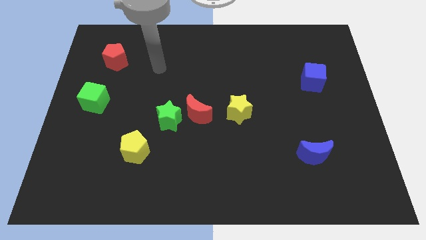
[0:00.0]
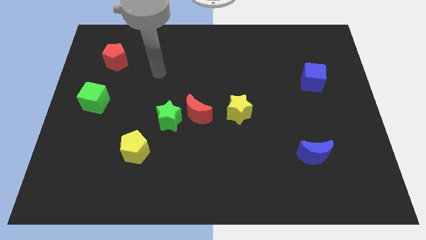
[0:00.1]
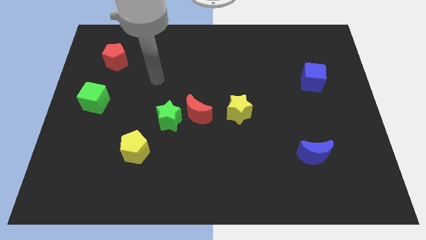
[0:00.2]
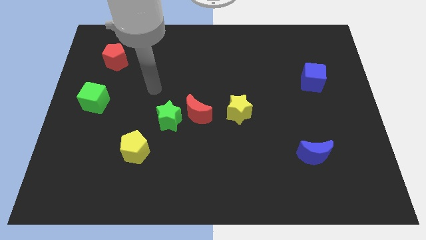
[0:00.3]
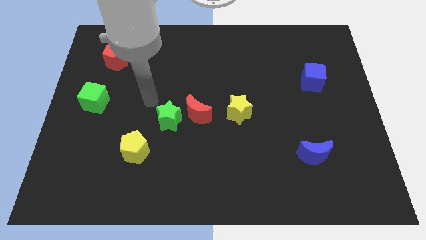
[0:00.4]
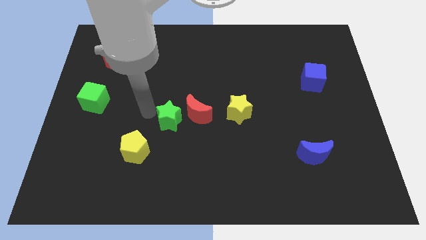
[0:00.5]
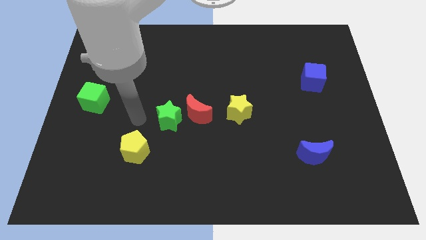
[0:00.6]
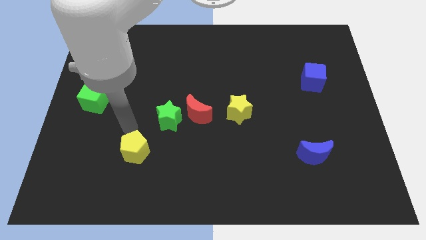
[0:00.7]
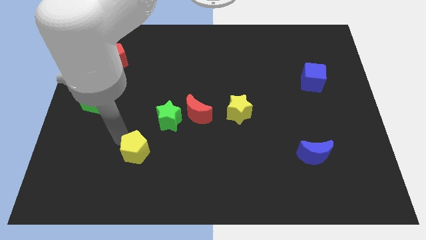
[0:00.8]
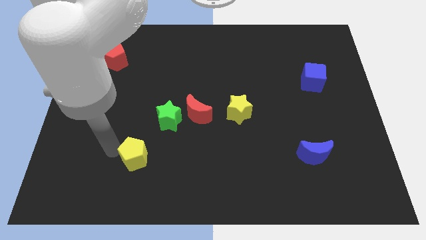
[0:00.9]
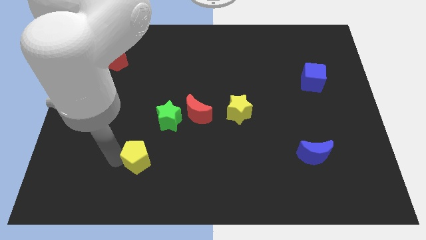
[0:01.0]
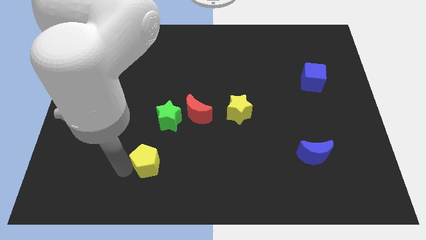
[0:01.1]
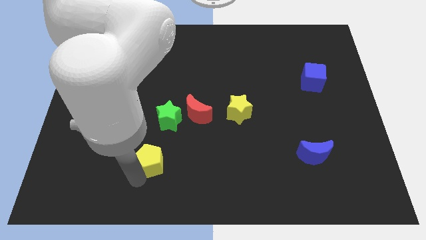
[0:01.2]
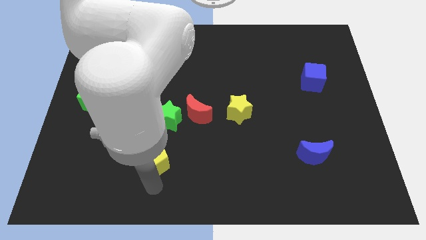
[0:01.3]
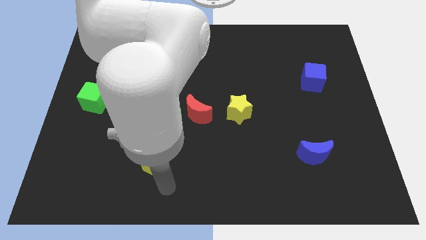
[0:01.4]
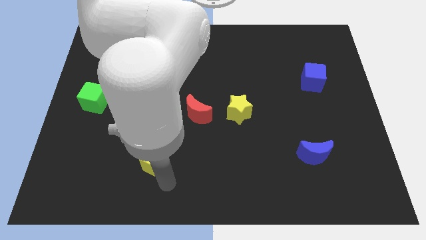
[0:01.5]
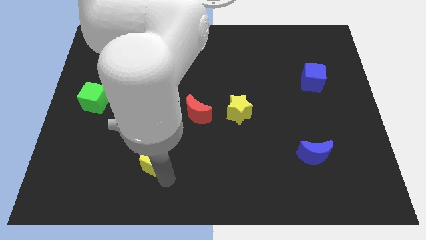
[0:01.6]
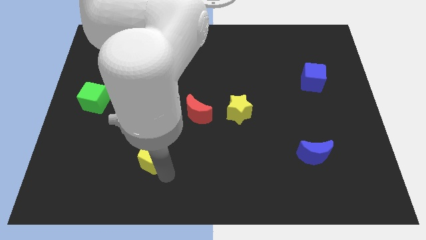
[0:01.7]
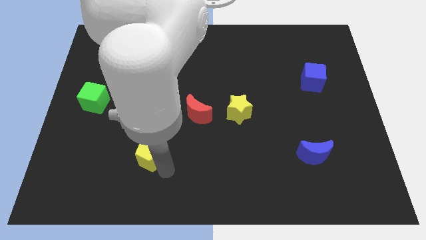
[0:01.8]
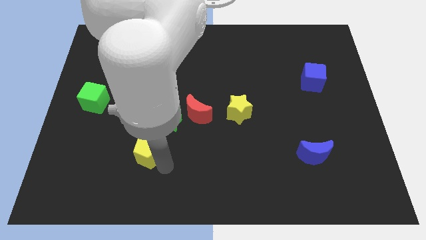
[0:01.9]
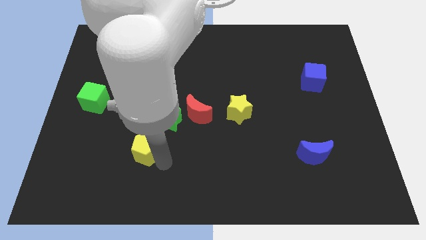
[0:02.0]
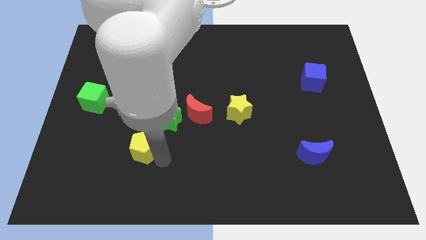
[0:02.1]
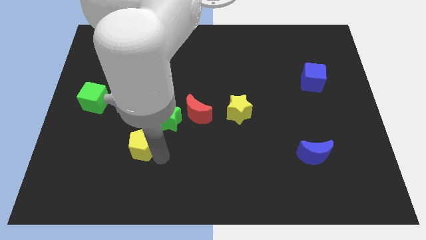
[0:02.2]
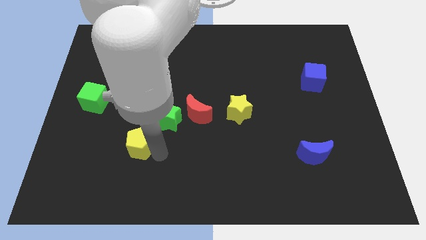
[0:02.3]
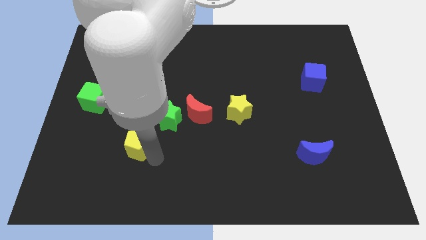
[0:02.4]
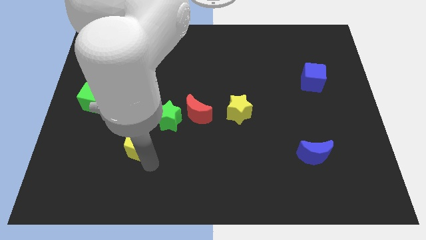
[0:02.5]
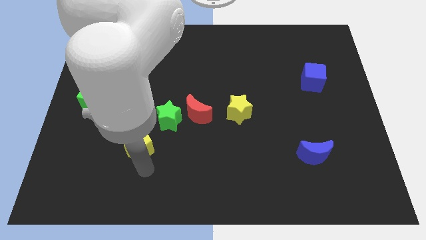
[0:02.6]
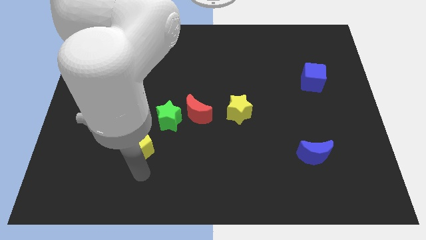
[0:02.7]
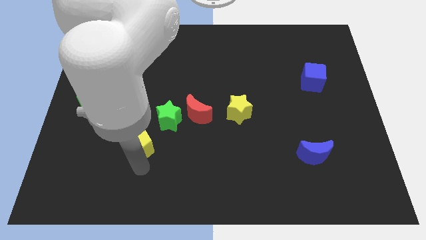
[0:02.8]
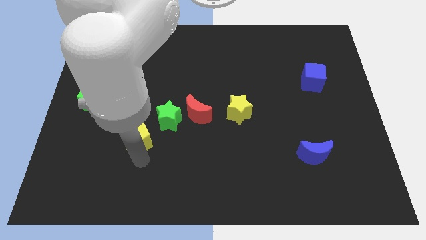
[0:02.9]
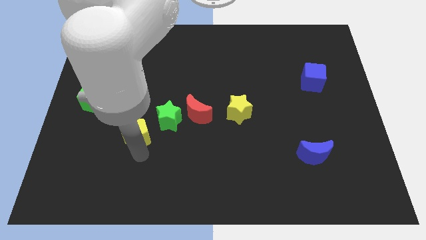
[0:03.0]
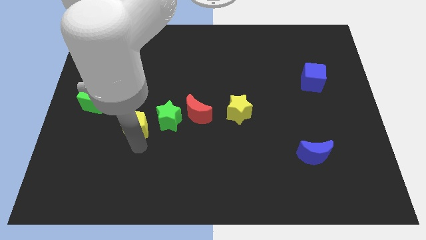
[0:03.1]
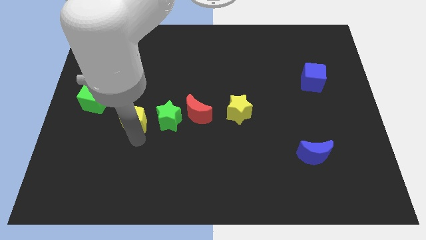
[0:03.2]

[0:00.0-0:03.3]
slide the yellow pentagon a bit upwards

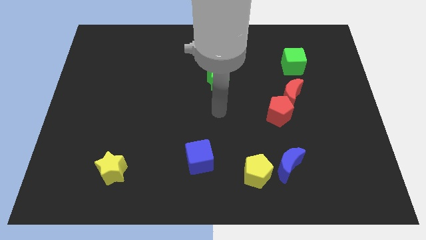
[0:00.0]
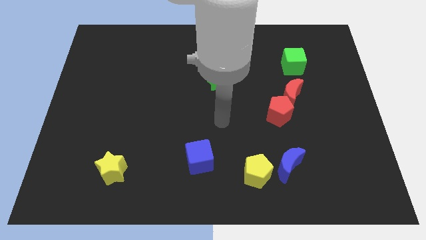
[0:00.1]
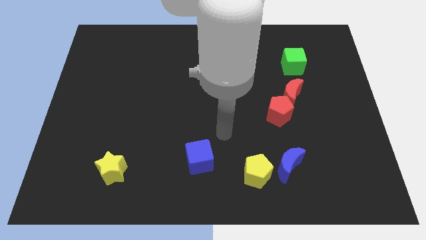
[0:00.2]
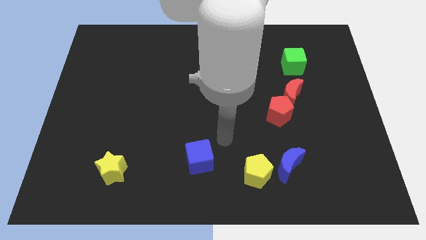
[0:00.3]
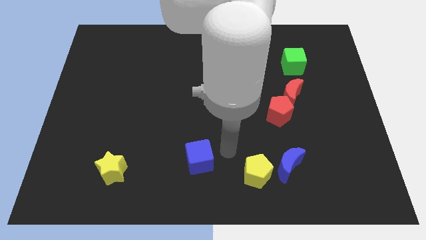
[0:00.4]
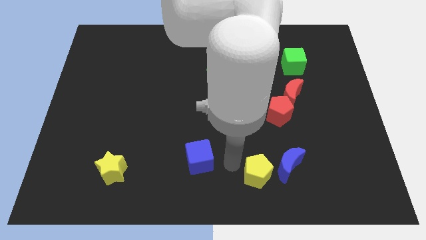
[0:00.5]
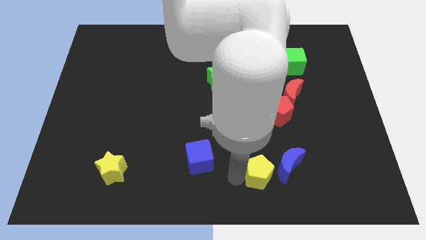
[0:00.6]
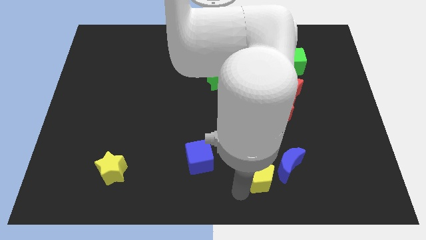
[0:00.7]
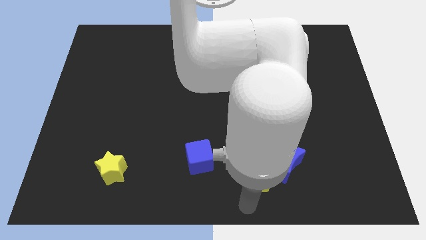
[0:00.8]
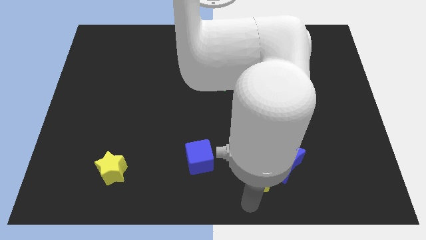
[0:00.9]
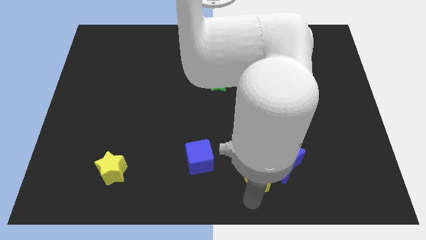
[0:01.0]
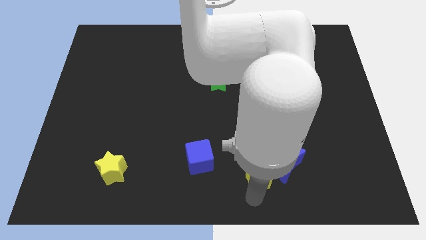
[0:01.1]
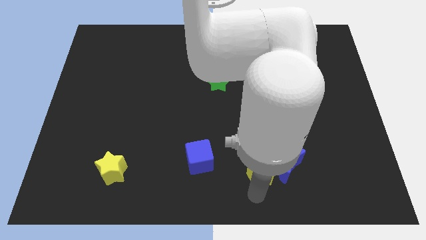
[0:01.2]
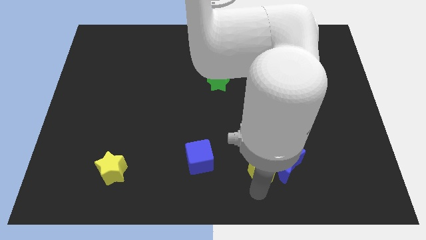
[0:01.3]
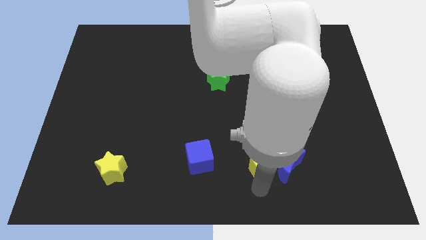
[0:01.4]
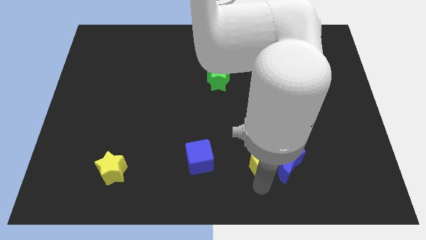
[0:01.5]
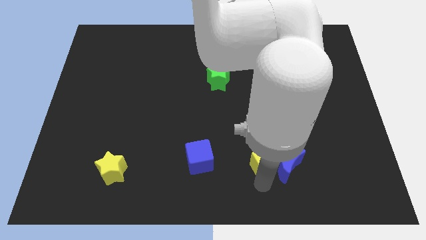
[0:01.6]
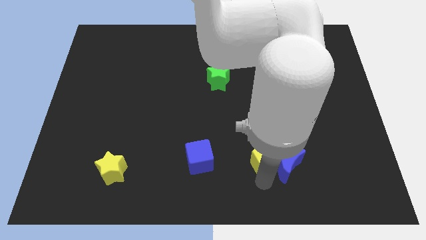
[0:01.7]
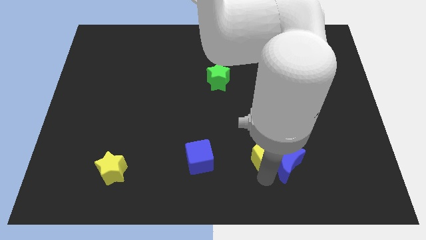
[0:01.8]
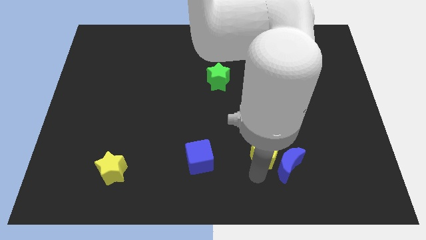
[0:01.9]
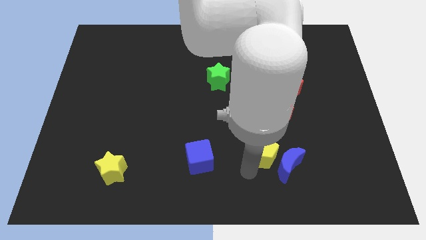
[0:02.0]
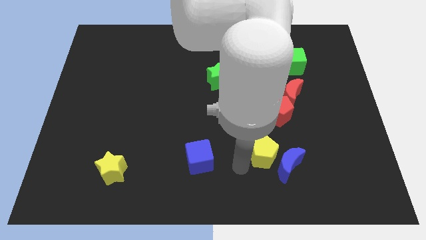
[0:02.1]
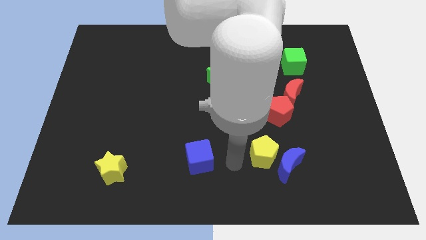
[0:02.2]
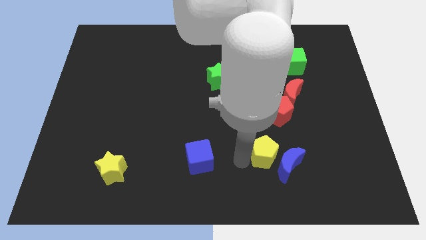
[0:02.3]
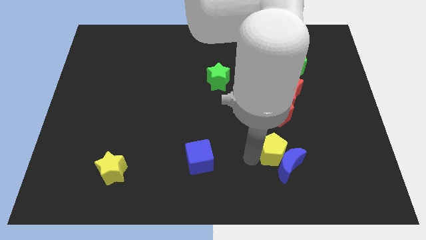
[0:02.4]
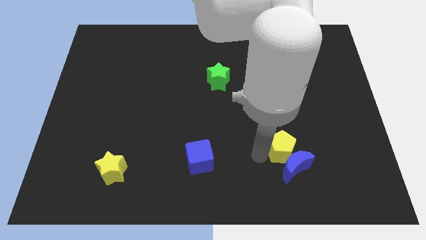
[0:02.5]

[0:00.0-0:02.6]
push the yellow pentagon diagonally upwards and to the right somewhat

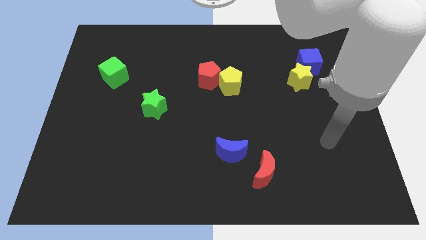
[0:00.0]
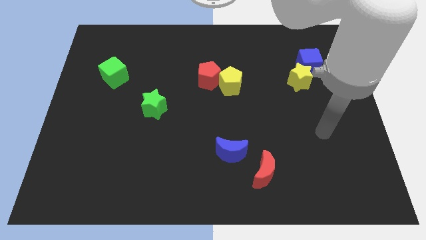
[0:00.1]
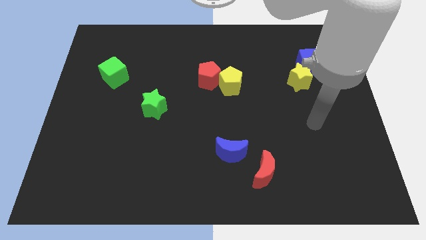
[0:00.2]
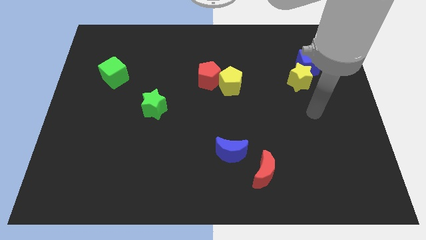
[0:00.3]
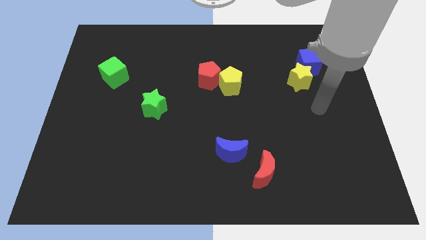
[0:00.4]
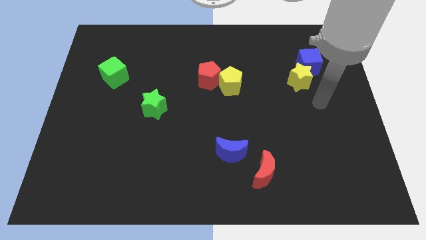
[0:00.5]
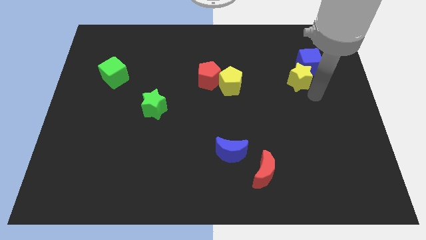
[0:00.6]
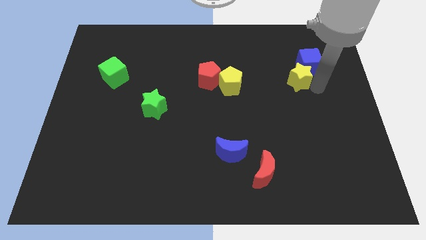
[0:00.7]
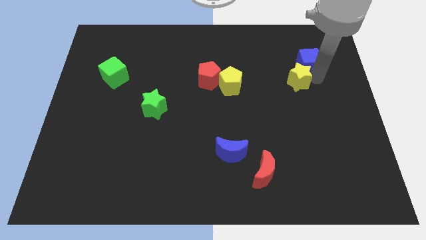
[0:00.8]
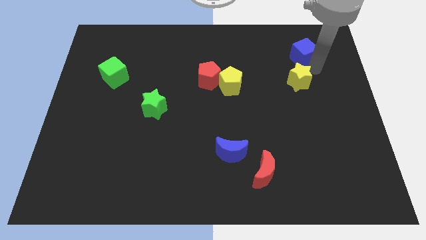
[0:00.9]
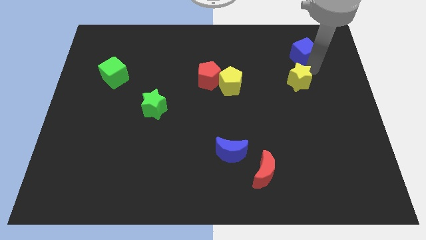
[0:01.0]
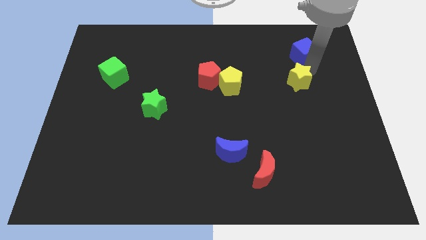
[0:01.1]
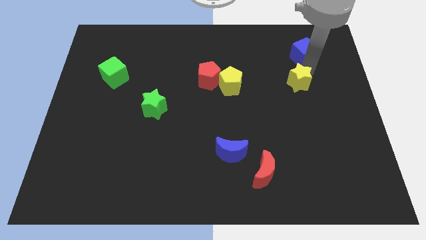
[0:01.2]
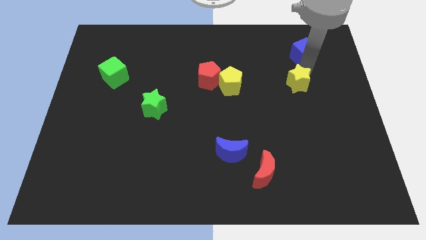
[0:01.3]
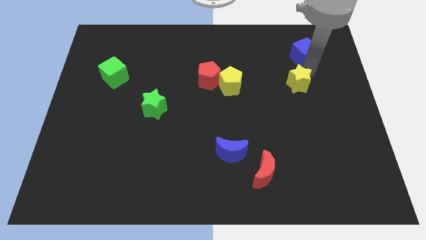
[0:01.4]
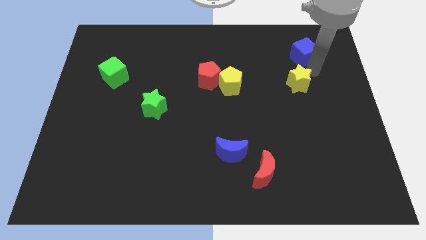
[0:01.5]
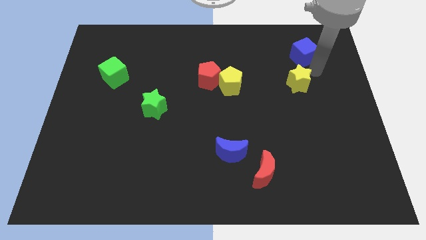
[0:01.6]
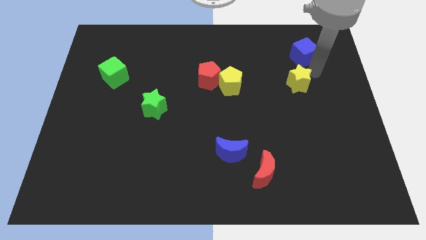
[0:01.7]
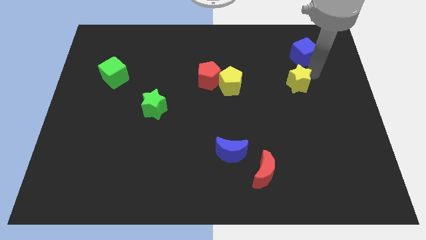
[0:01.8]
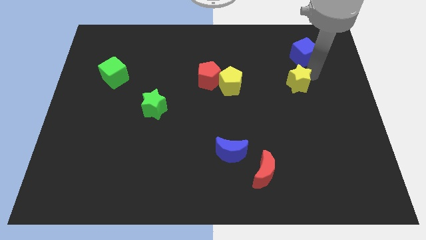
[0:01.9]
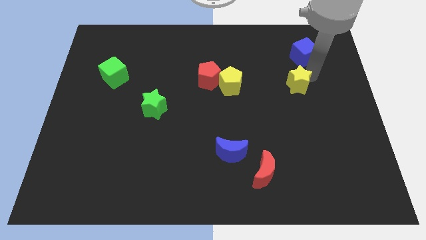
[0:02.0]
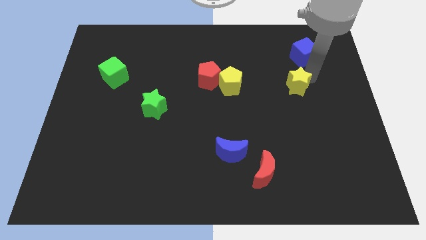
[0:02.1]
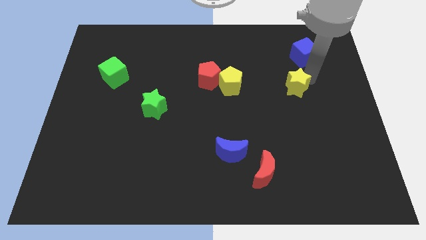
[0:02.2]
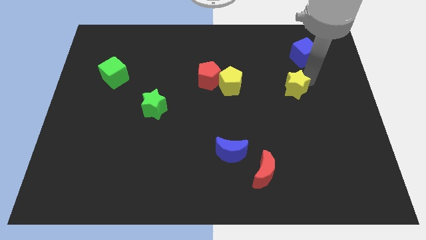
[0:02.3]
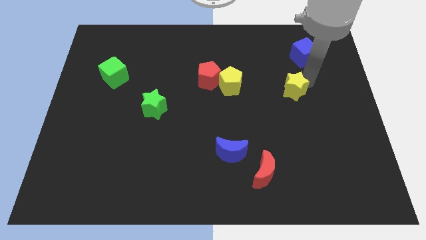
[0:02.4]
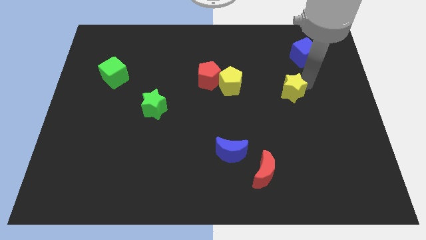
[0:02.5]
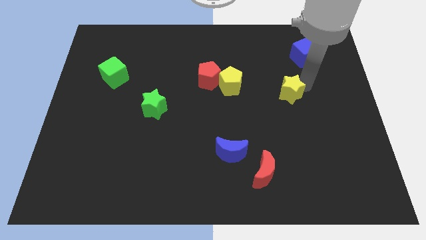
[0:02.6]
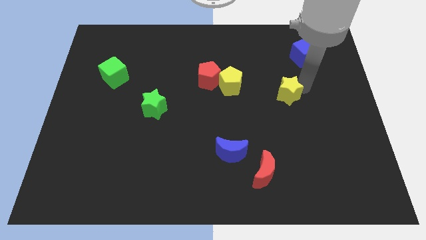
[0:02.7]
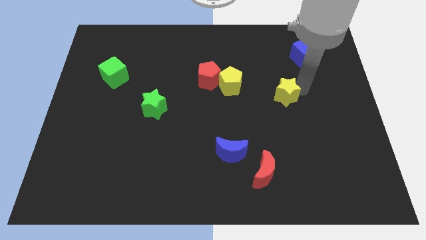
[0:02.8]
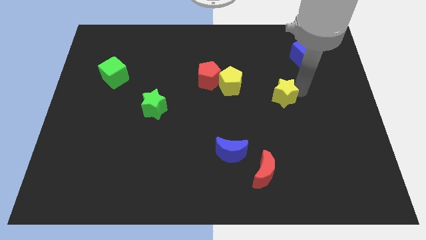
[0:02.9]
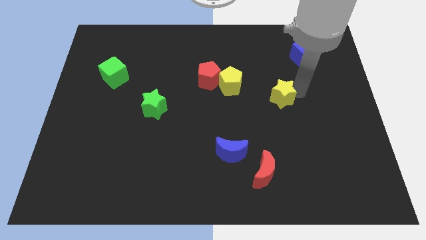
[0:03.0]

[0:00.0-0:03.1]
move the yellow star down and left diagonally somewhat
